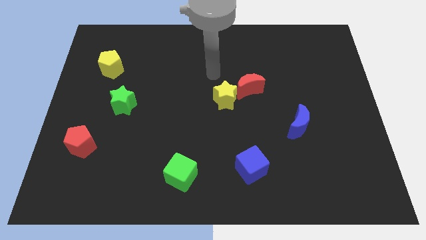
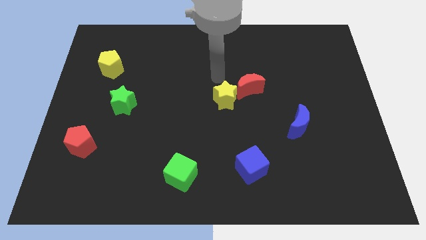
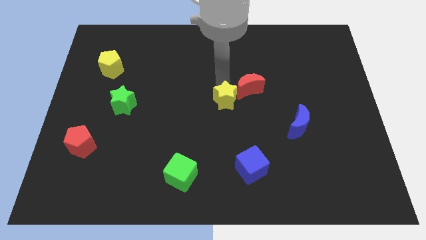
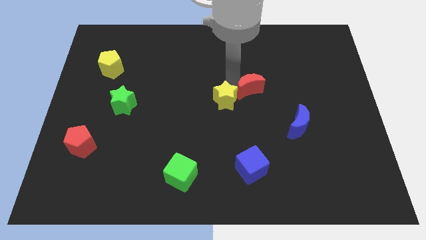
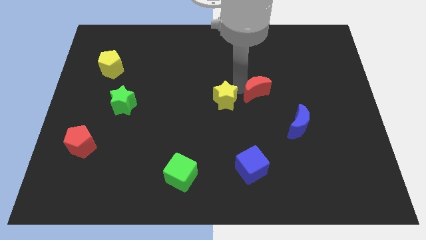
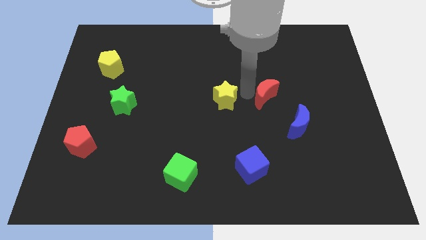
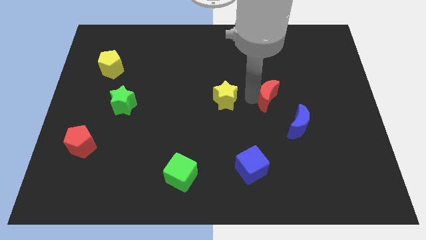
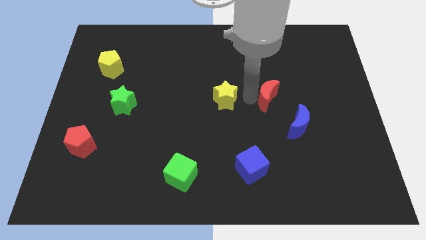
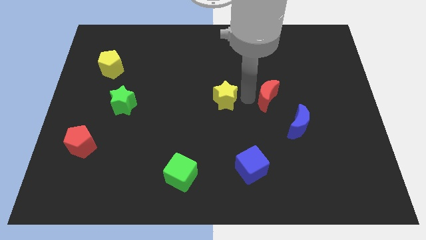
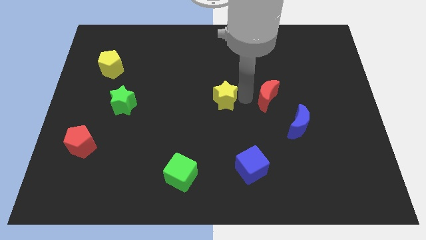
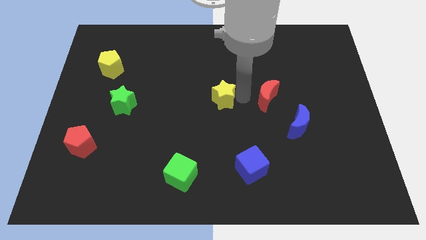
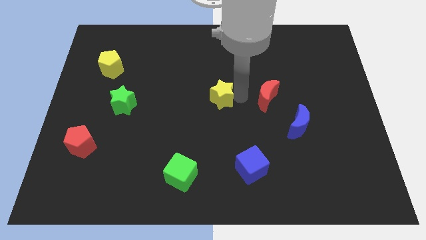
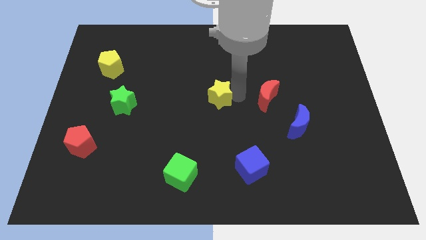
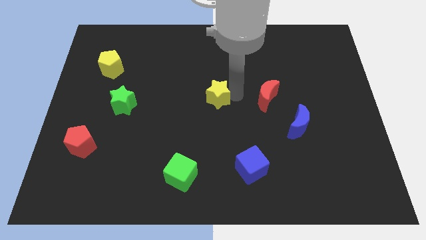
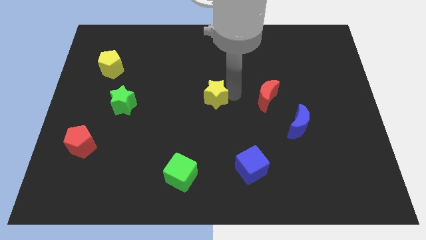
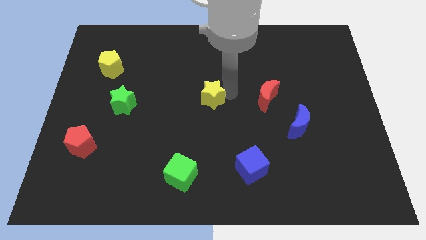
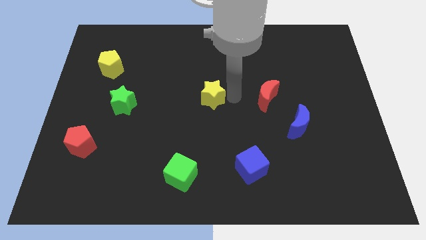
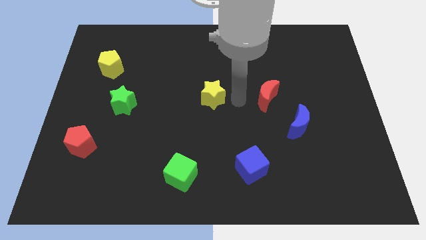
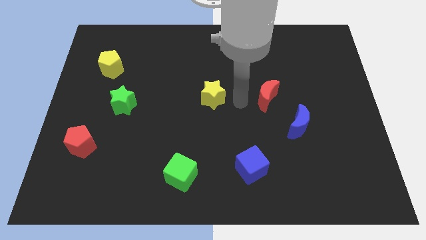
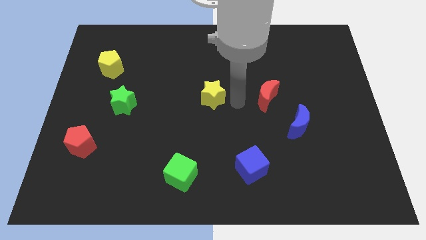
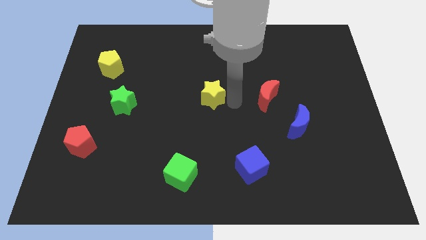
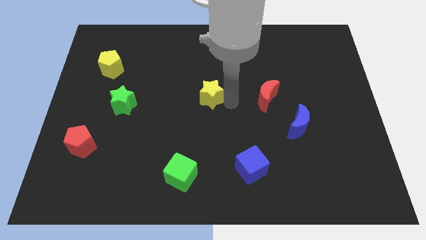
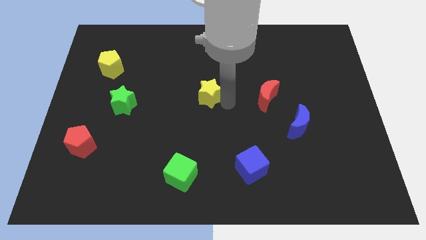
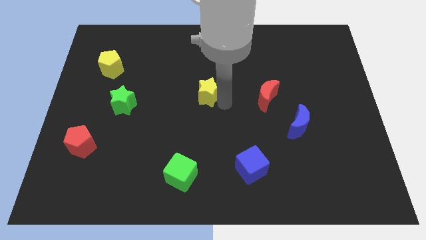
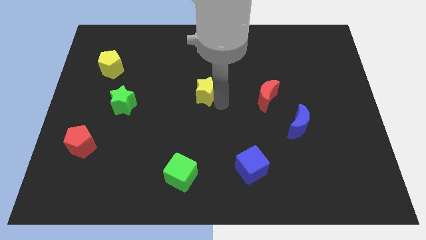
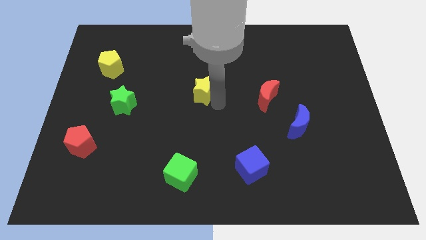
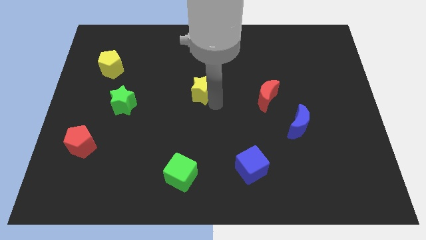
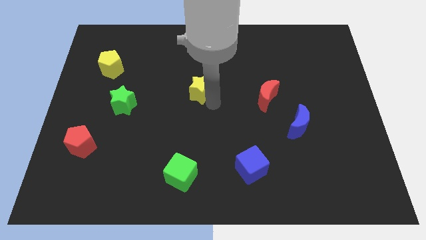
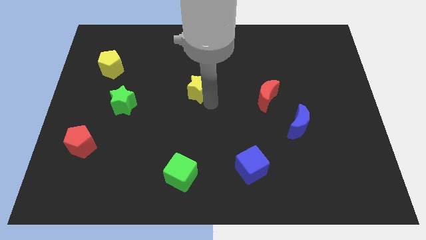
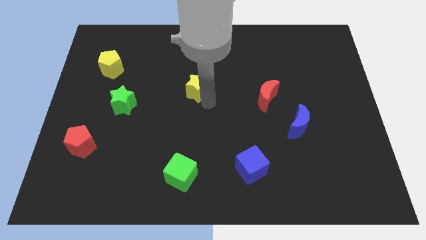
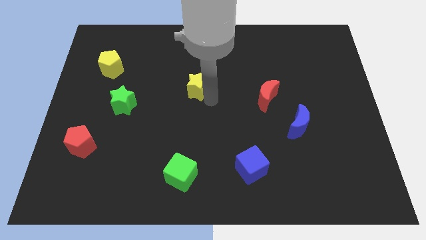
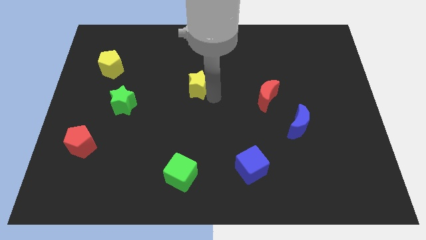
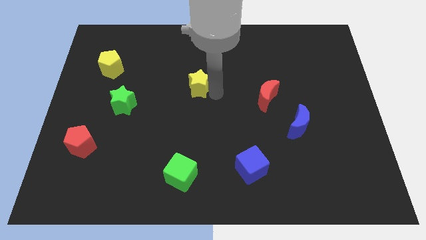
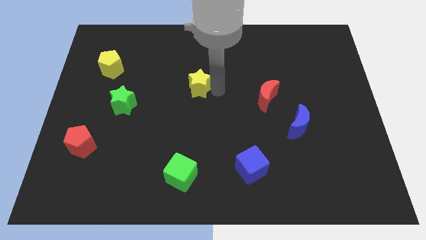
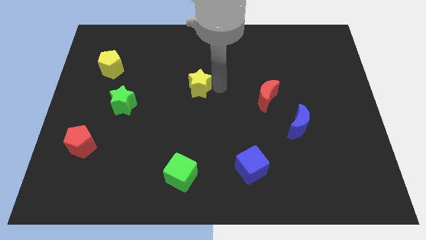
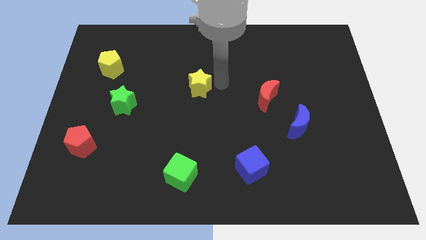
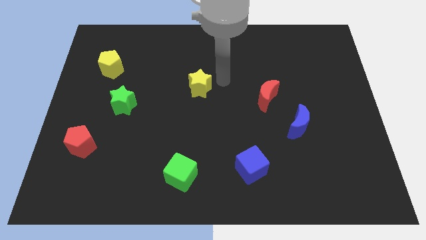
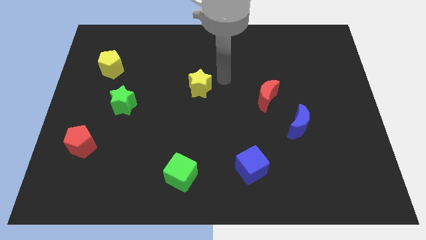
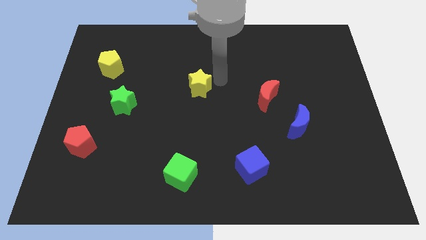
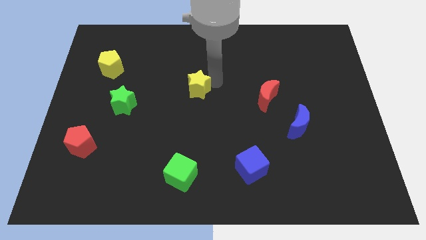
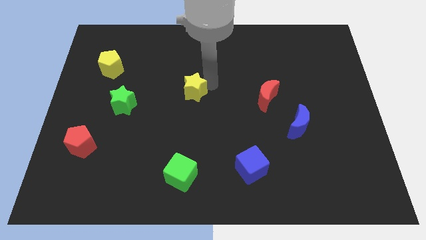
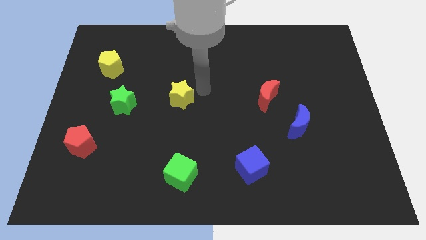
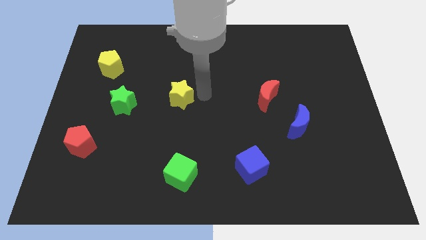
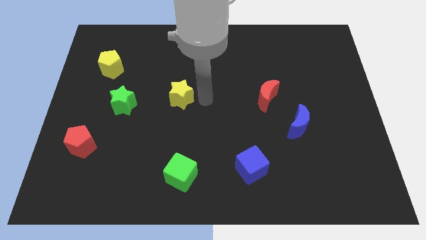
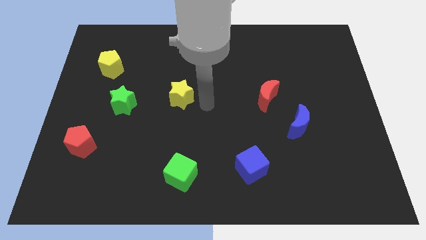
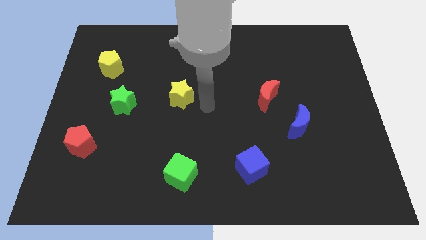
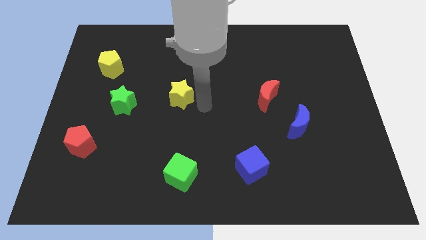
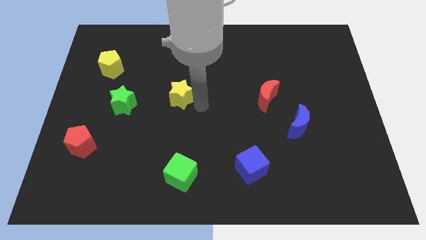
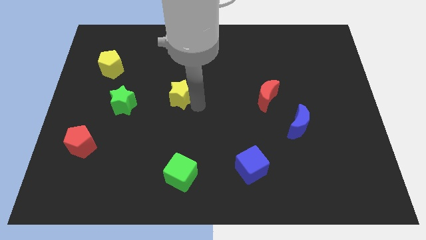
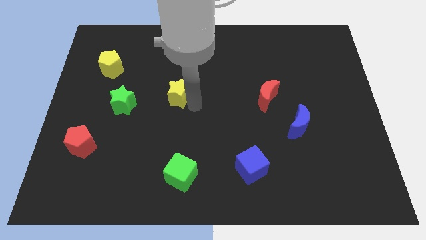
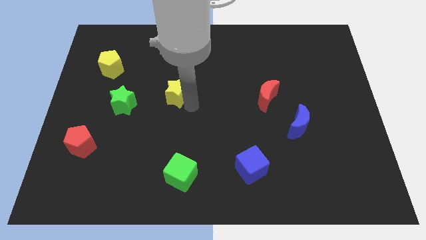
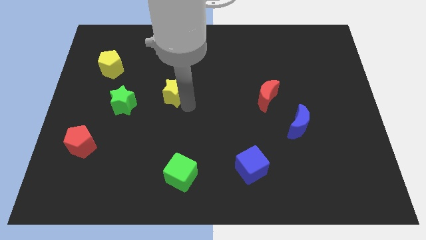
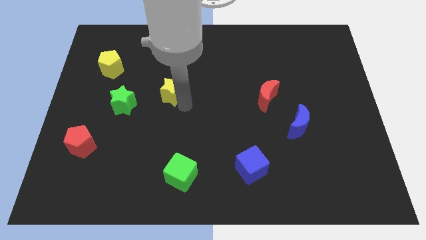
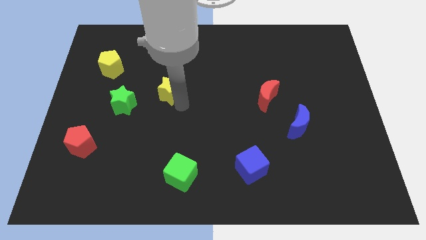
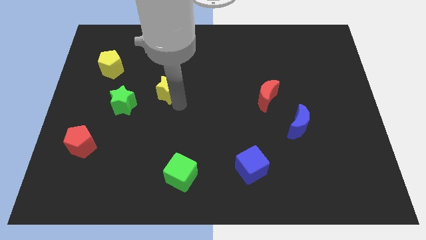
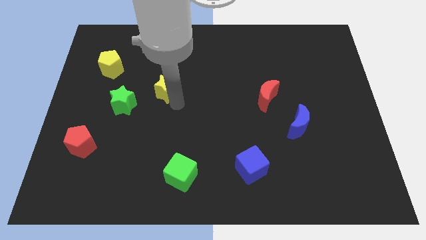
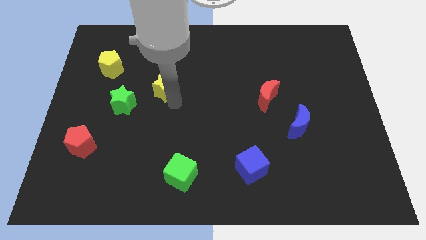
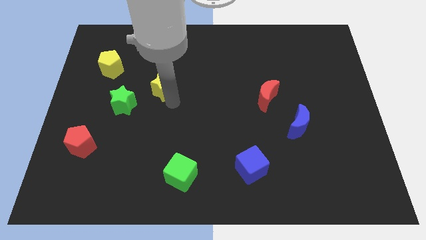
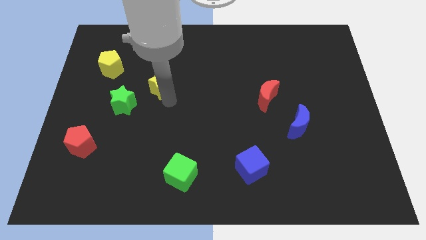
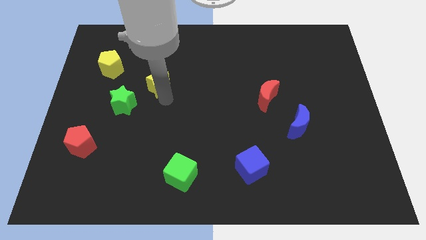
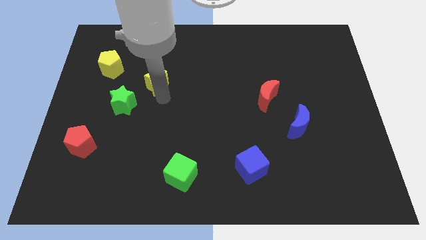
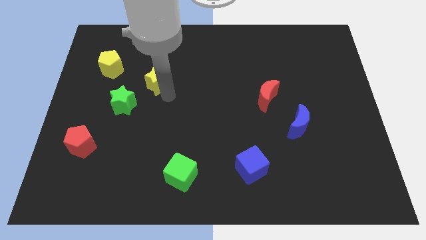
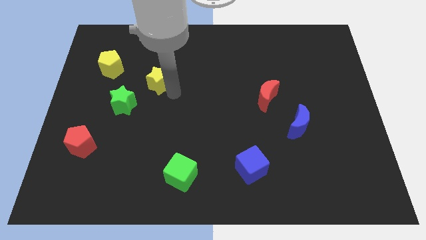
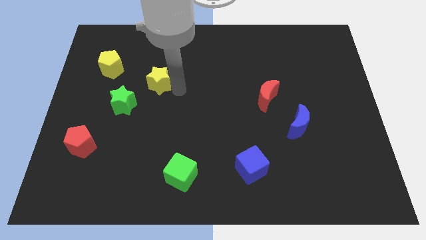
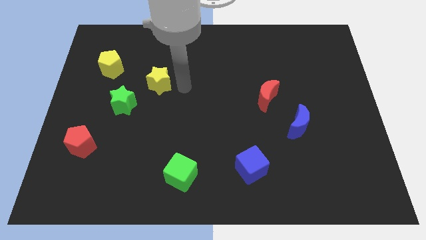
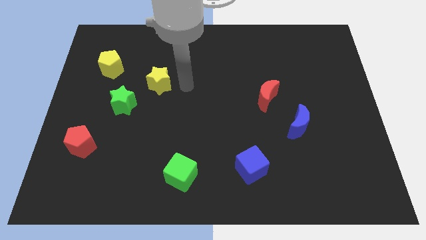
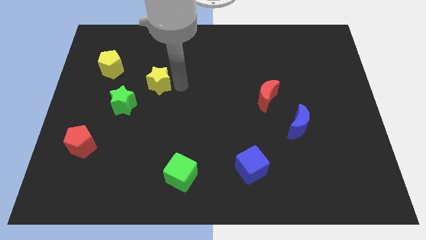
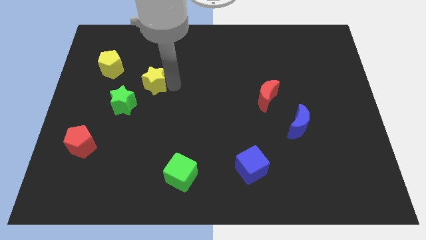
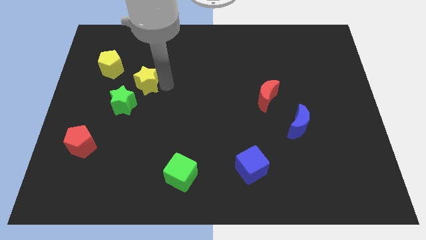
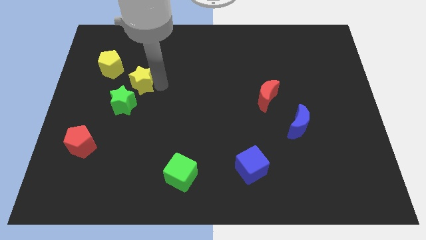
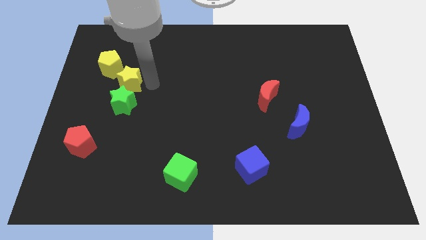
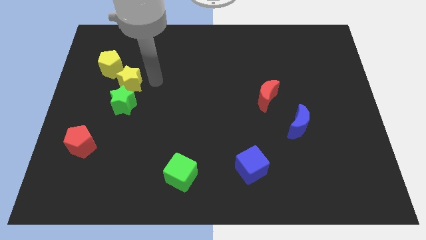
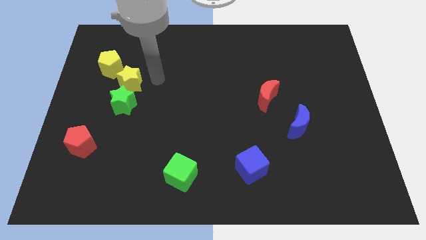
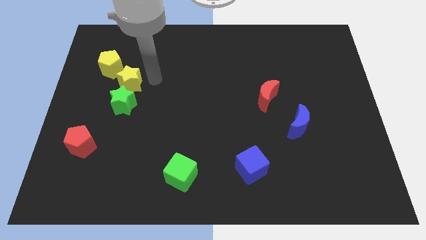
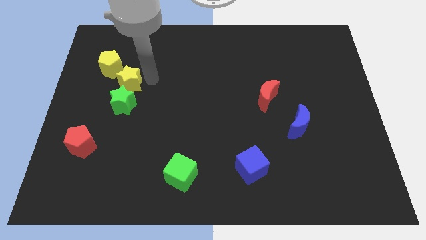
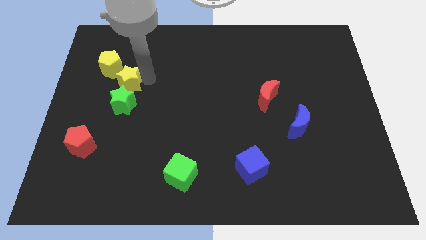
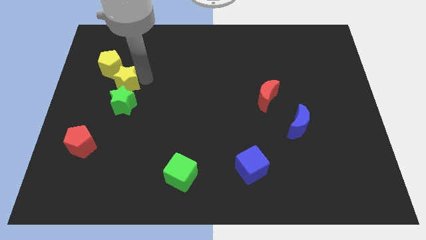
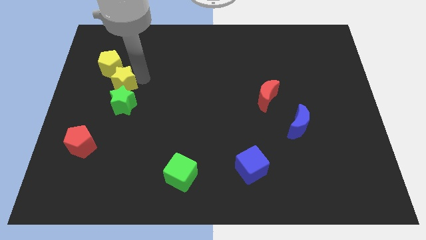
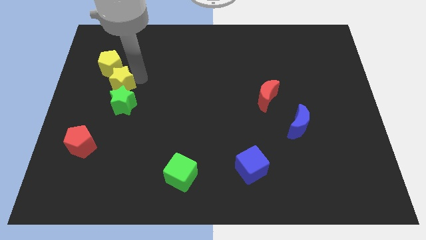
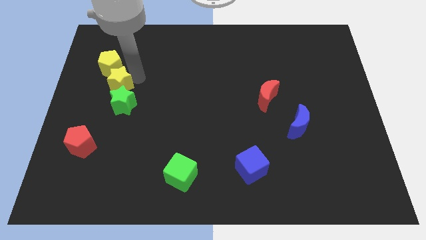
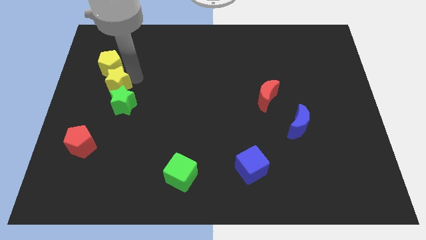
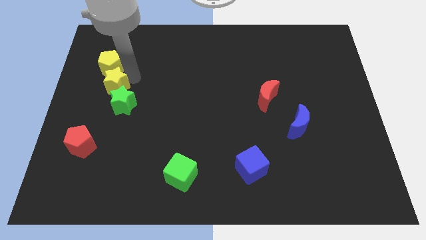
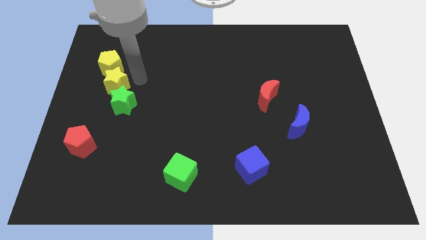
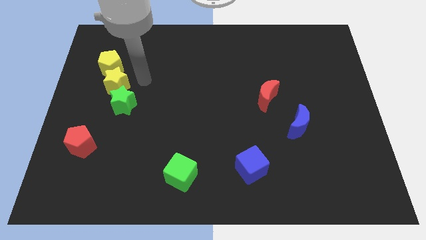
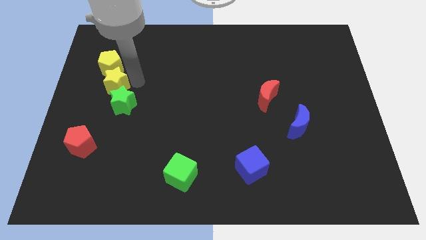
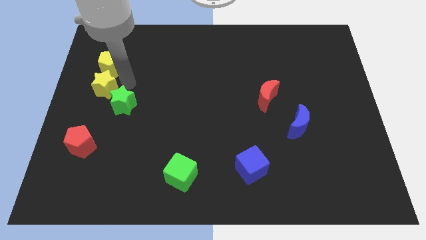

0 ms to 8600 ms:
slide the yellow star to the left side of the board
